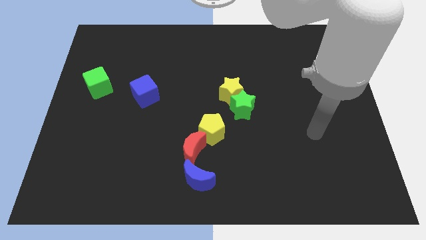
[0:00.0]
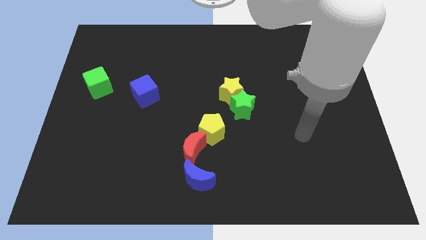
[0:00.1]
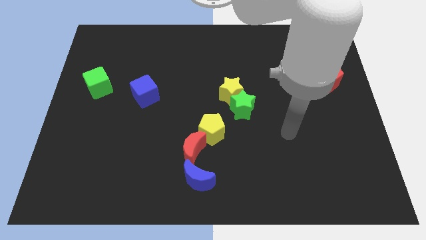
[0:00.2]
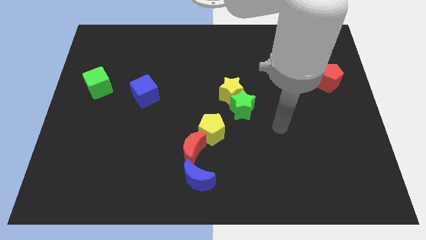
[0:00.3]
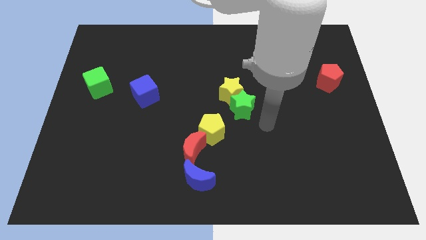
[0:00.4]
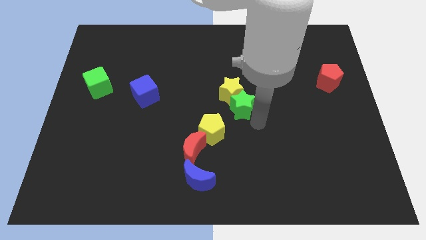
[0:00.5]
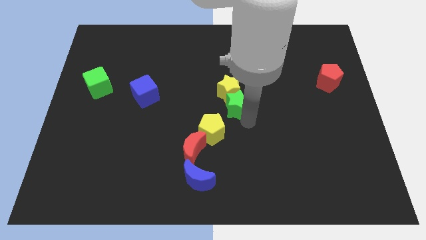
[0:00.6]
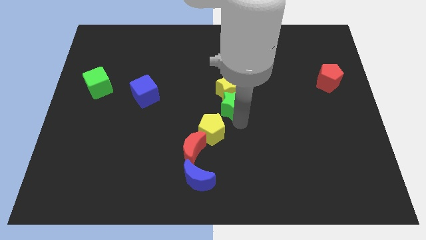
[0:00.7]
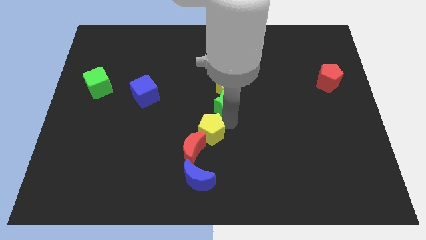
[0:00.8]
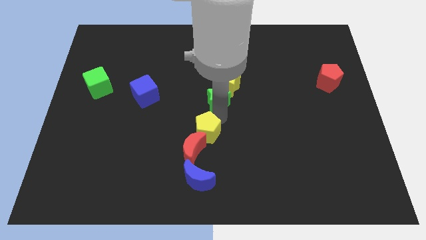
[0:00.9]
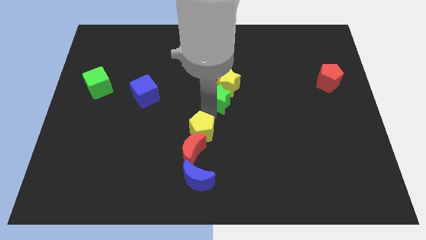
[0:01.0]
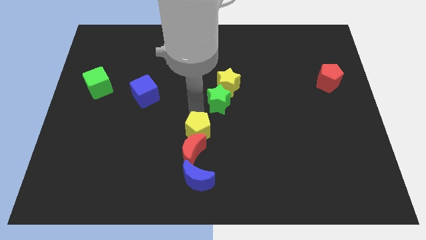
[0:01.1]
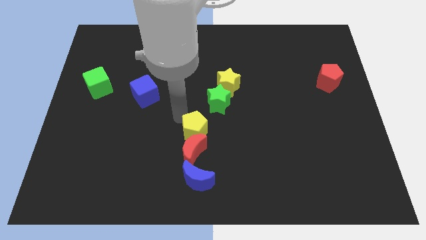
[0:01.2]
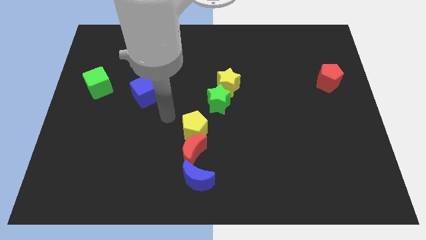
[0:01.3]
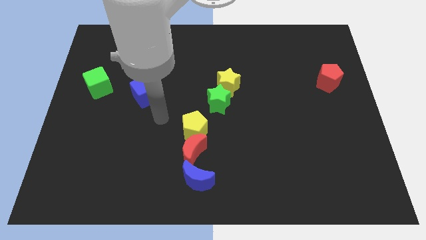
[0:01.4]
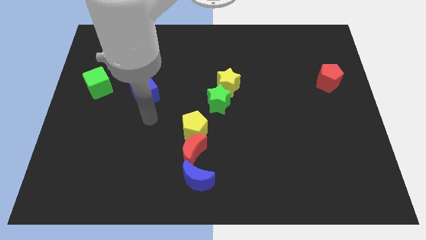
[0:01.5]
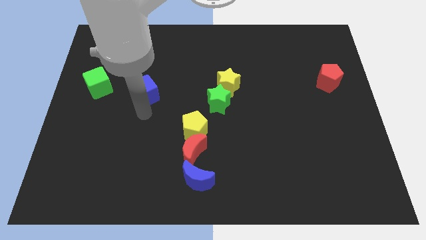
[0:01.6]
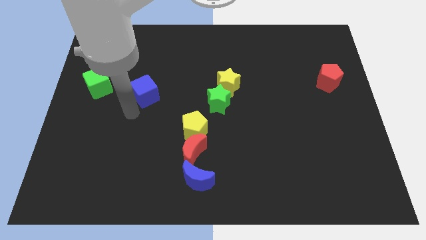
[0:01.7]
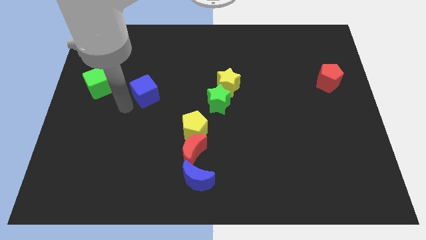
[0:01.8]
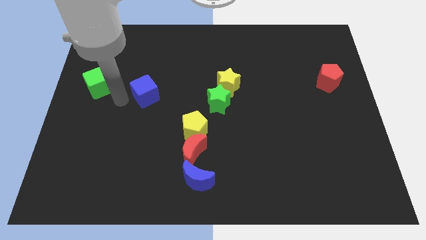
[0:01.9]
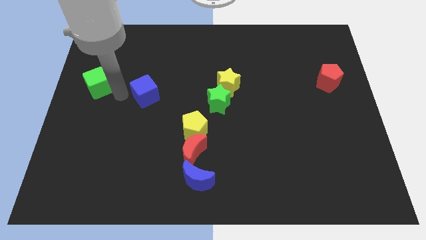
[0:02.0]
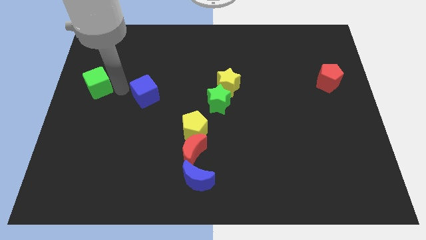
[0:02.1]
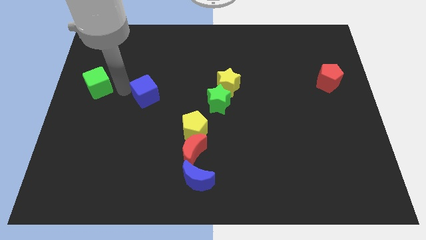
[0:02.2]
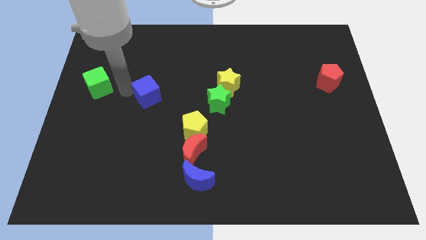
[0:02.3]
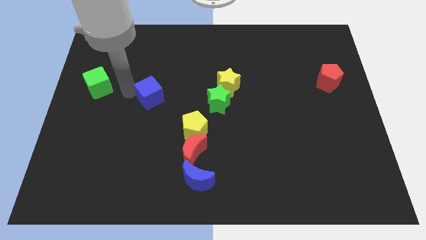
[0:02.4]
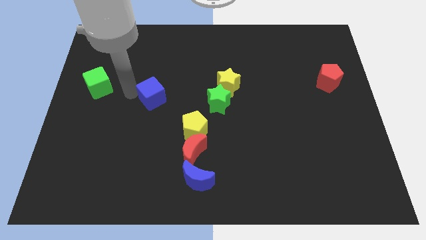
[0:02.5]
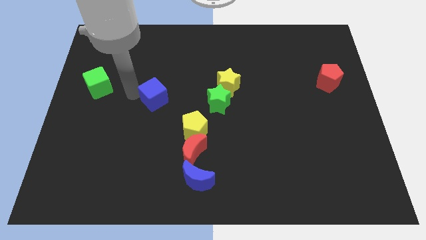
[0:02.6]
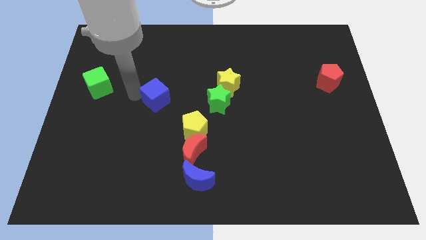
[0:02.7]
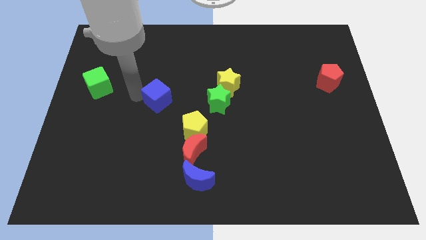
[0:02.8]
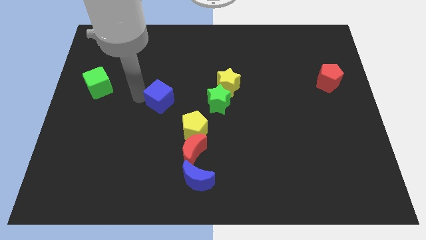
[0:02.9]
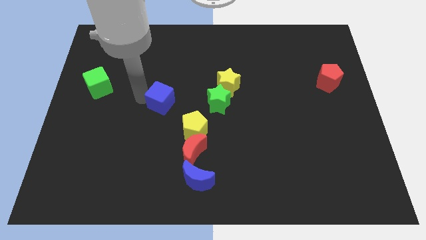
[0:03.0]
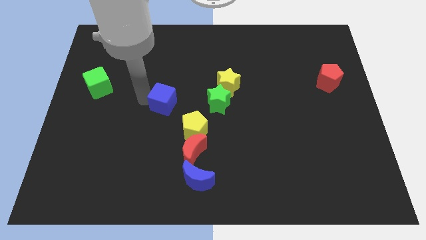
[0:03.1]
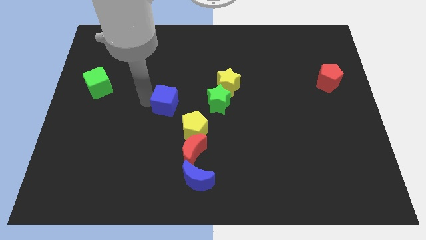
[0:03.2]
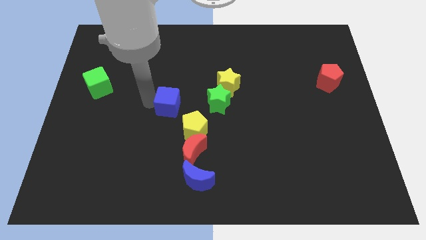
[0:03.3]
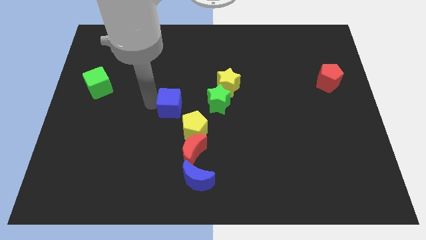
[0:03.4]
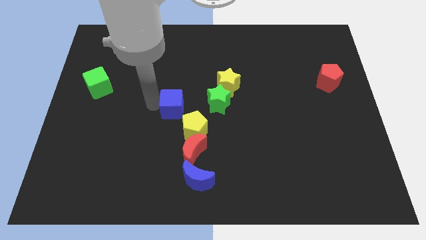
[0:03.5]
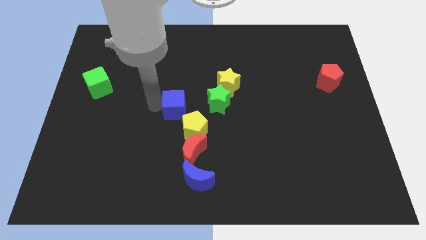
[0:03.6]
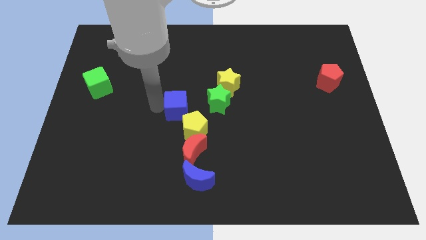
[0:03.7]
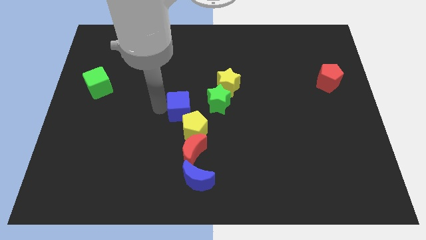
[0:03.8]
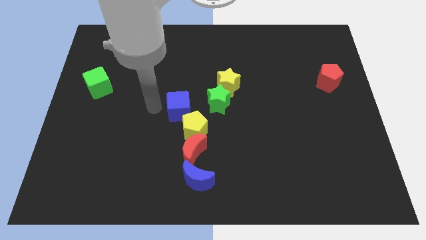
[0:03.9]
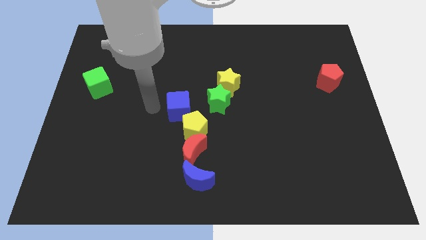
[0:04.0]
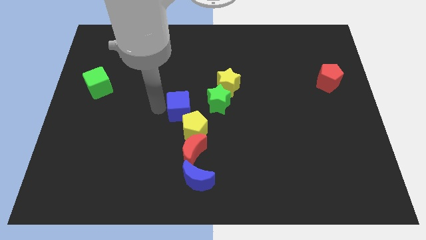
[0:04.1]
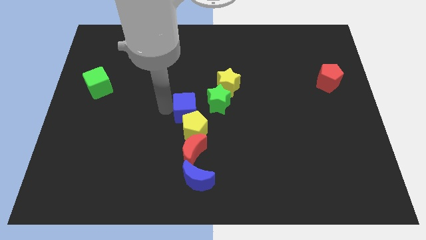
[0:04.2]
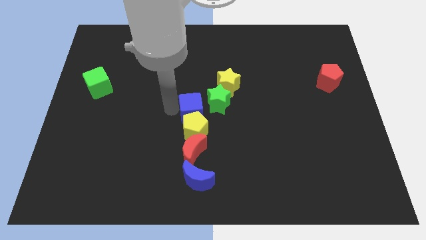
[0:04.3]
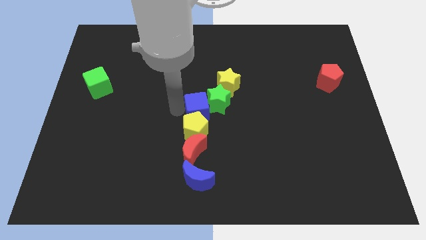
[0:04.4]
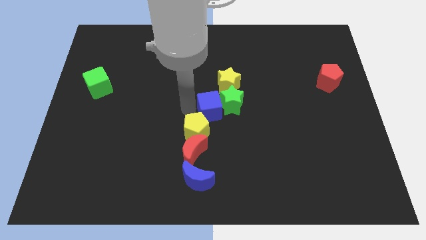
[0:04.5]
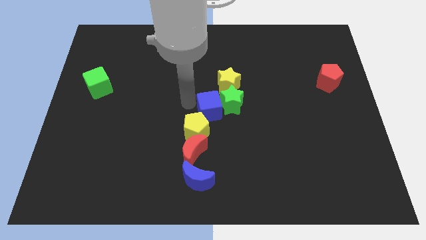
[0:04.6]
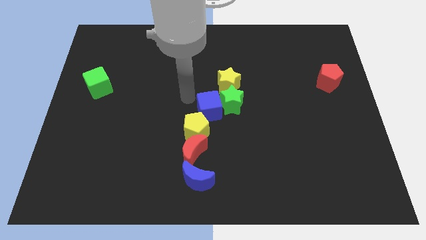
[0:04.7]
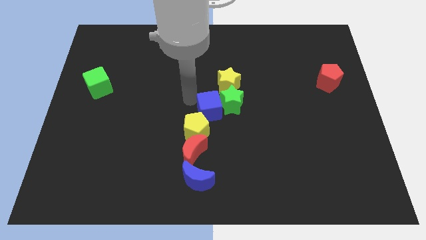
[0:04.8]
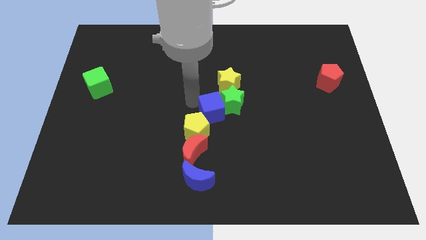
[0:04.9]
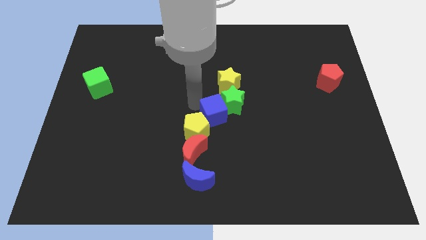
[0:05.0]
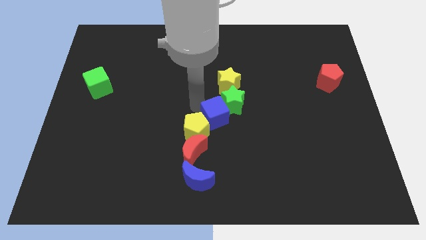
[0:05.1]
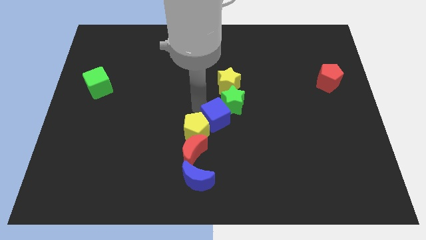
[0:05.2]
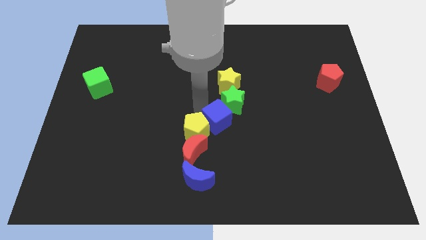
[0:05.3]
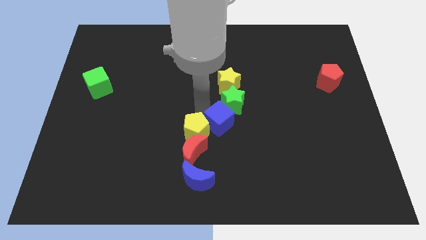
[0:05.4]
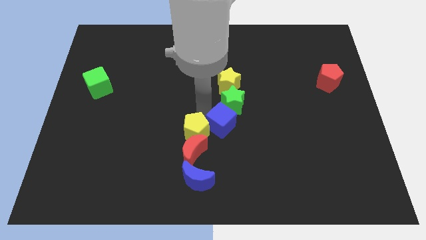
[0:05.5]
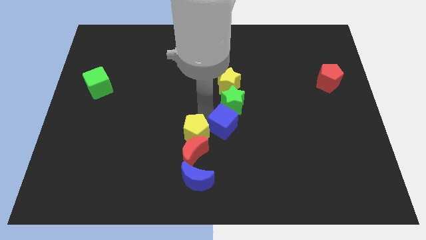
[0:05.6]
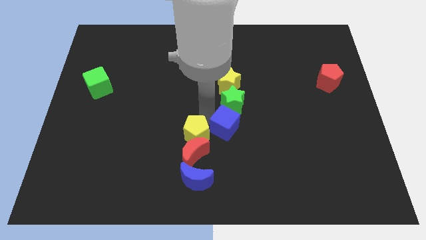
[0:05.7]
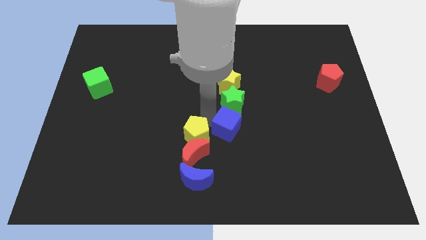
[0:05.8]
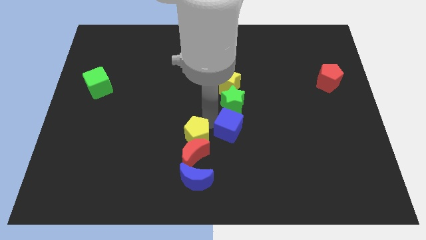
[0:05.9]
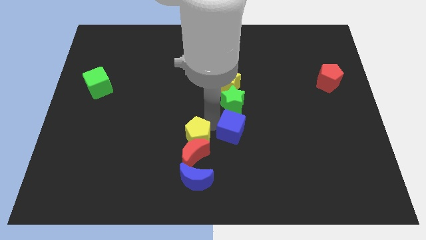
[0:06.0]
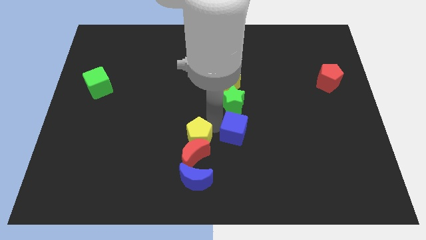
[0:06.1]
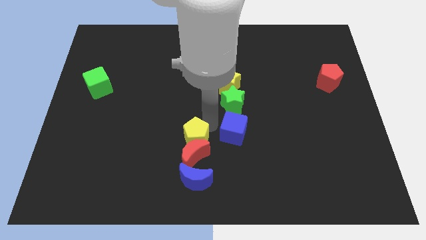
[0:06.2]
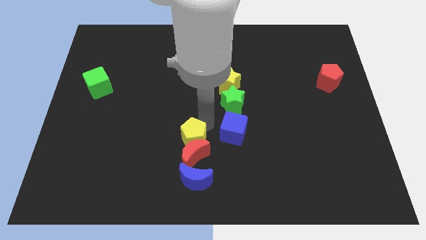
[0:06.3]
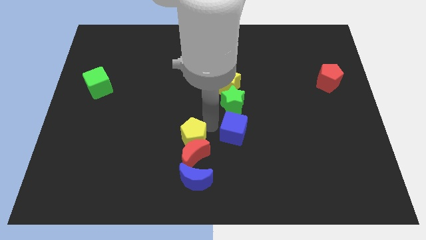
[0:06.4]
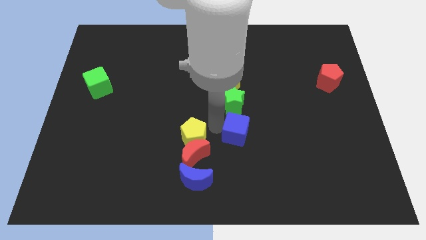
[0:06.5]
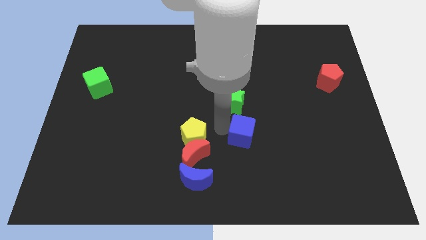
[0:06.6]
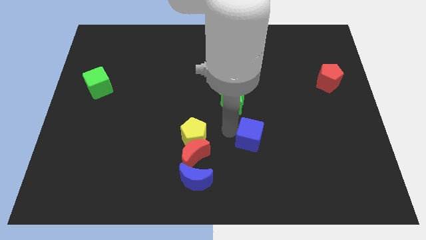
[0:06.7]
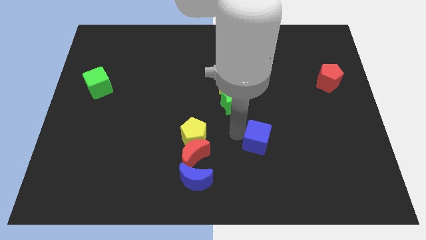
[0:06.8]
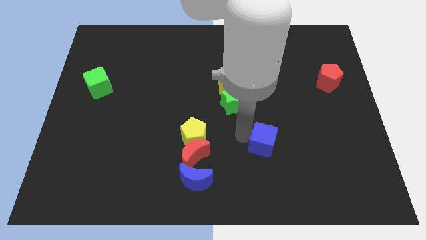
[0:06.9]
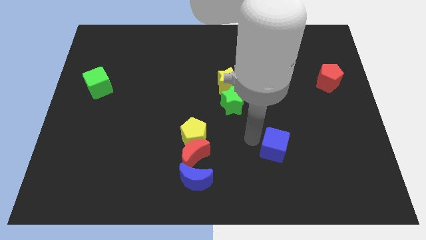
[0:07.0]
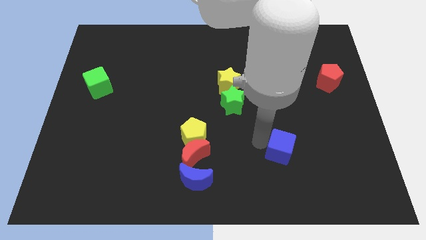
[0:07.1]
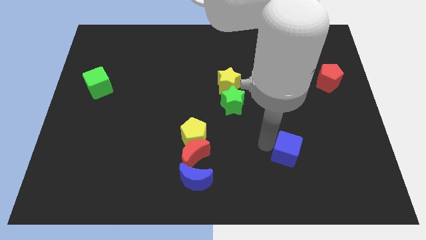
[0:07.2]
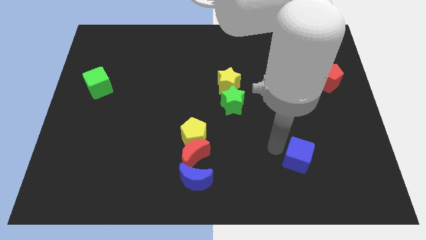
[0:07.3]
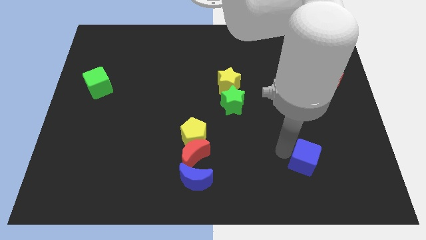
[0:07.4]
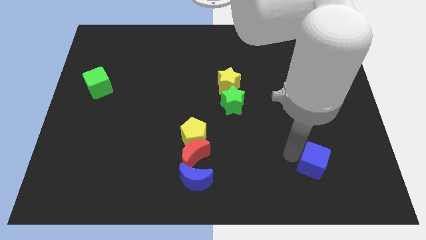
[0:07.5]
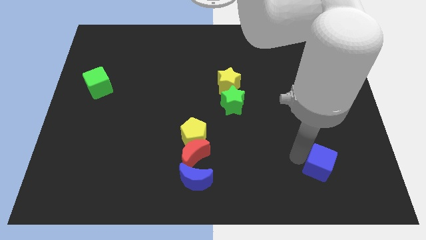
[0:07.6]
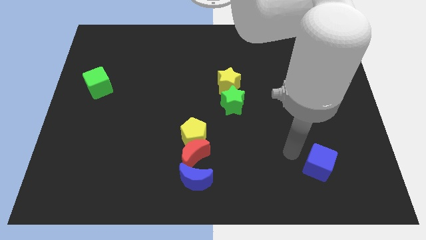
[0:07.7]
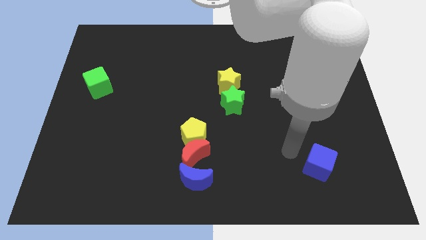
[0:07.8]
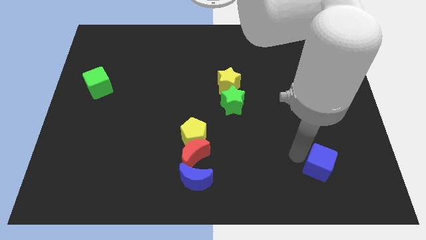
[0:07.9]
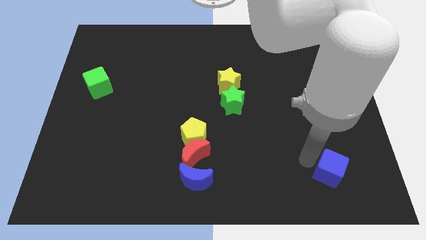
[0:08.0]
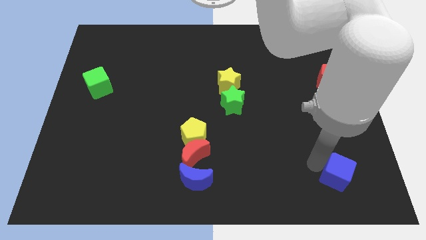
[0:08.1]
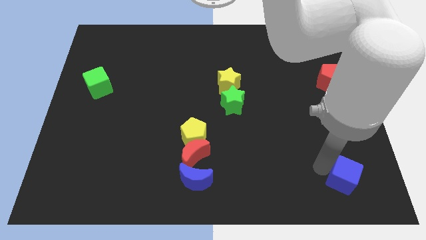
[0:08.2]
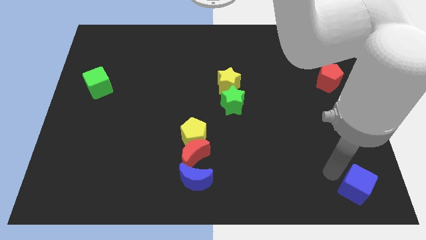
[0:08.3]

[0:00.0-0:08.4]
push the blue cube to the bottom right of the board
